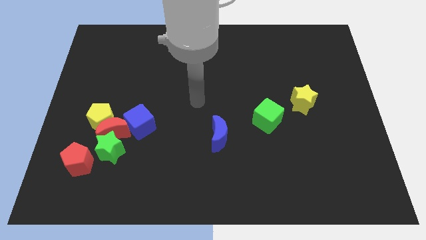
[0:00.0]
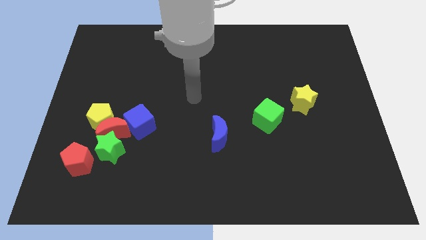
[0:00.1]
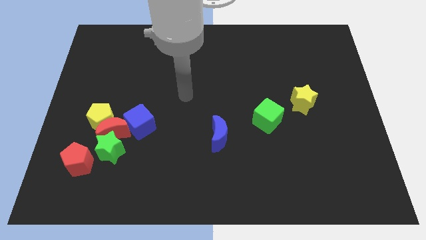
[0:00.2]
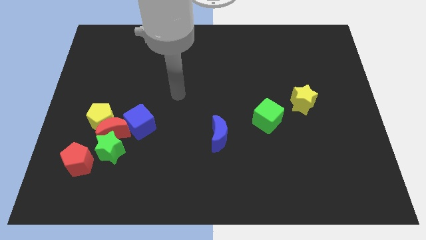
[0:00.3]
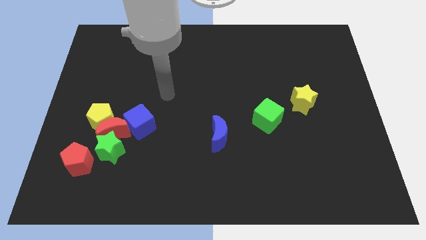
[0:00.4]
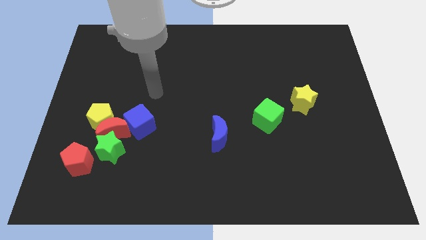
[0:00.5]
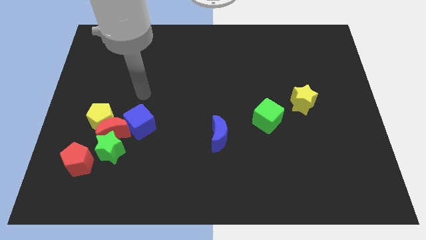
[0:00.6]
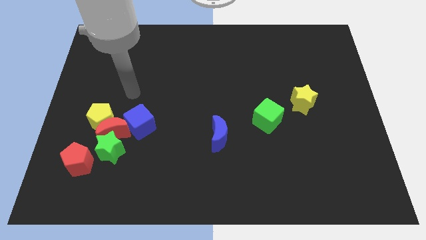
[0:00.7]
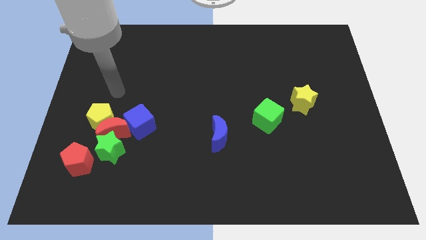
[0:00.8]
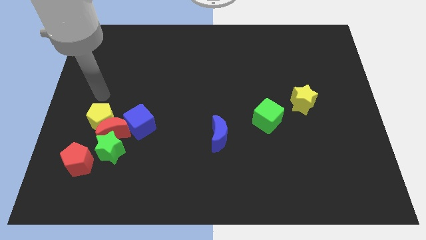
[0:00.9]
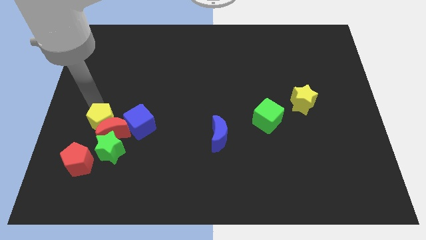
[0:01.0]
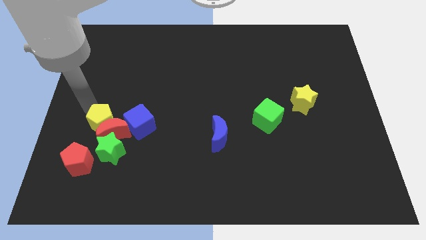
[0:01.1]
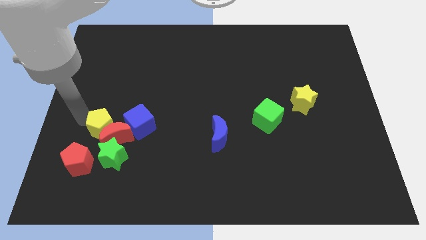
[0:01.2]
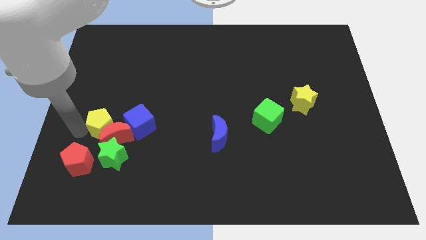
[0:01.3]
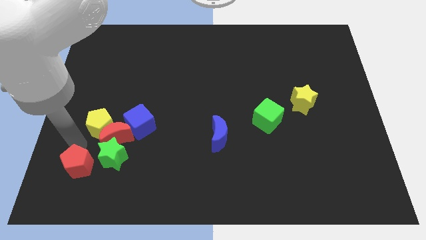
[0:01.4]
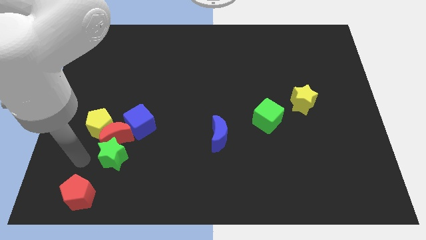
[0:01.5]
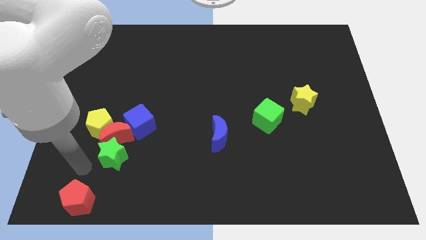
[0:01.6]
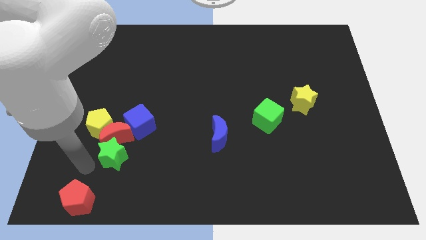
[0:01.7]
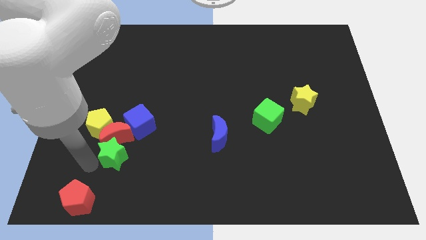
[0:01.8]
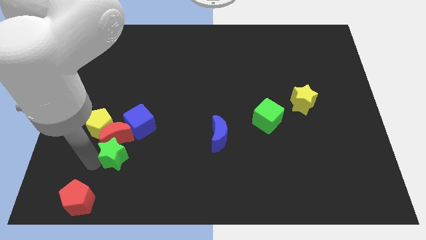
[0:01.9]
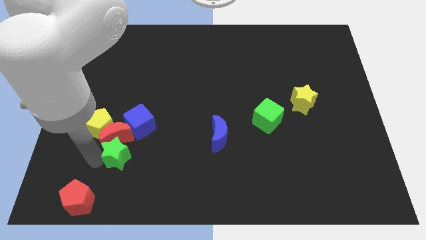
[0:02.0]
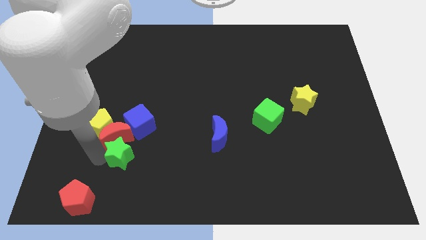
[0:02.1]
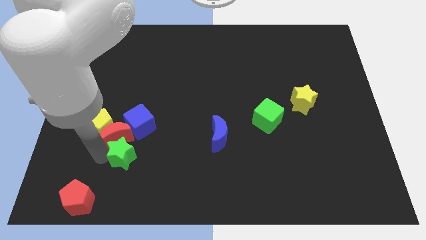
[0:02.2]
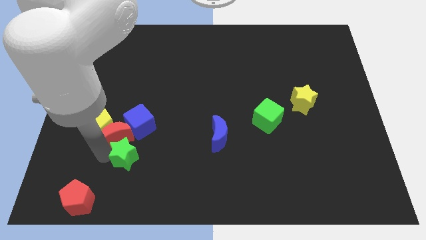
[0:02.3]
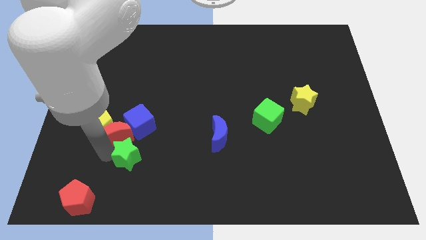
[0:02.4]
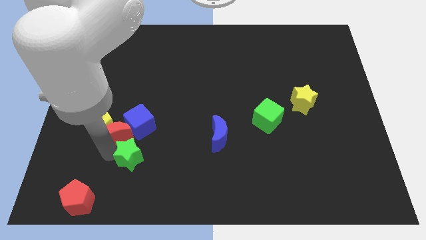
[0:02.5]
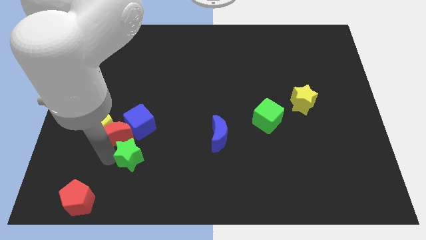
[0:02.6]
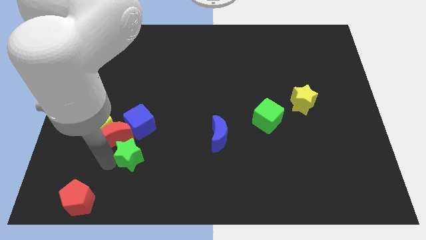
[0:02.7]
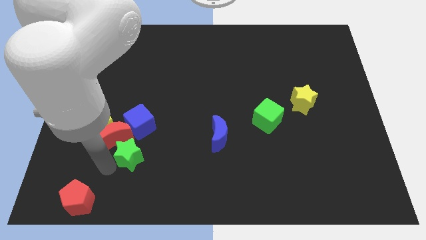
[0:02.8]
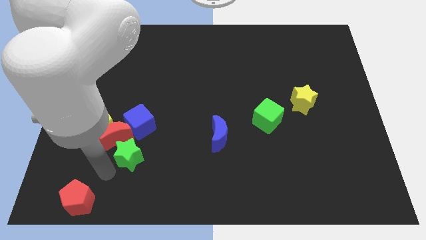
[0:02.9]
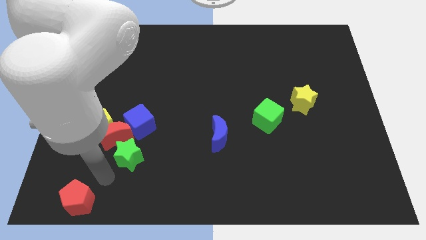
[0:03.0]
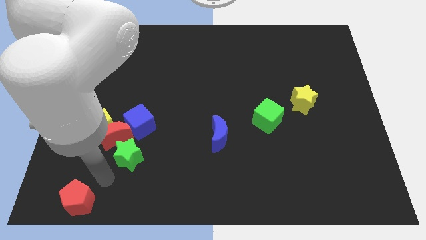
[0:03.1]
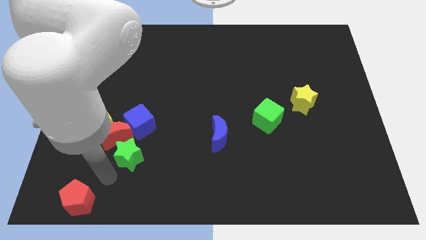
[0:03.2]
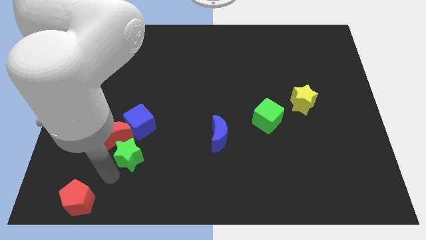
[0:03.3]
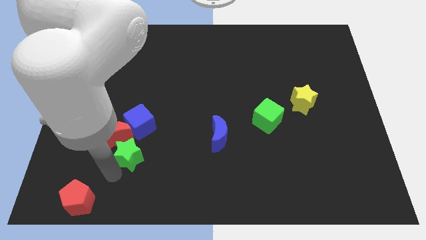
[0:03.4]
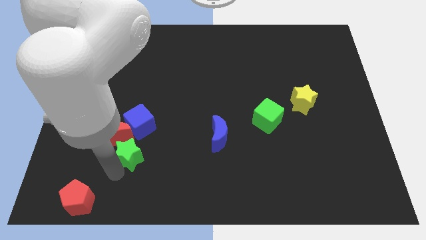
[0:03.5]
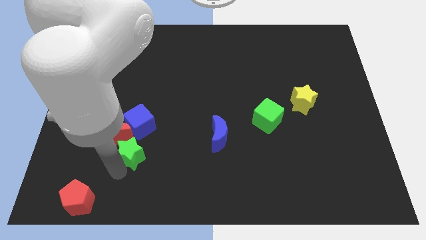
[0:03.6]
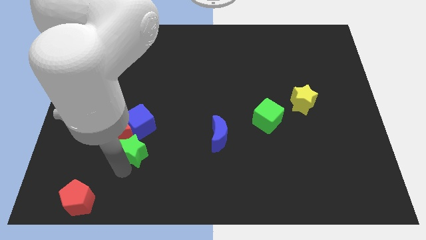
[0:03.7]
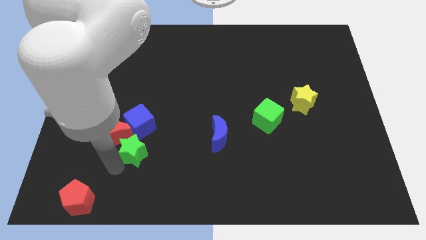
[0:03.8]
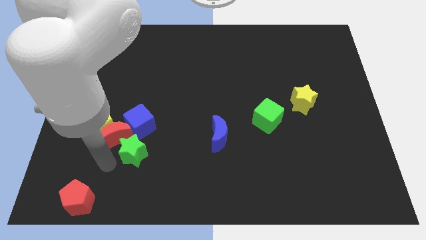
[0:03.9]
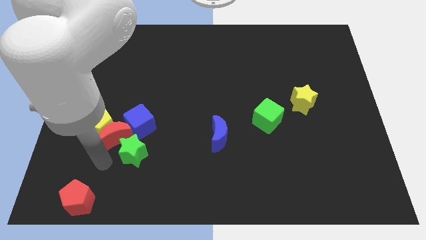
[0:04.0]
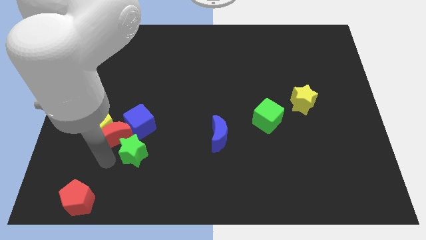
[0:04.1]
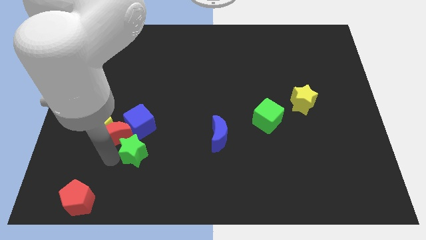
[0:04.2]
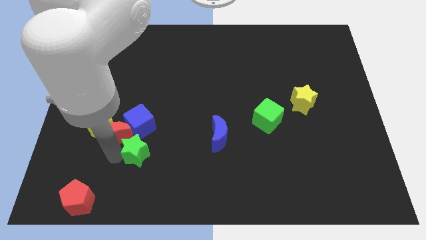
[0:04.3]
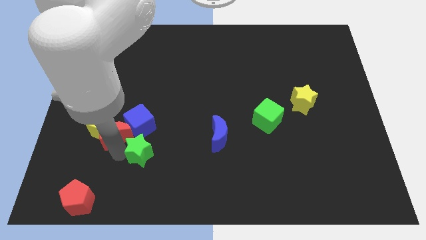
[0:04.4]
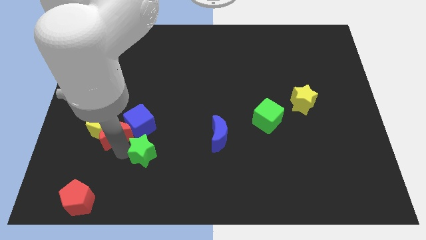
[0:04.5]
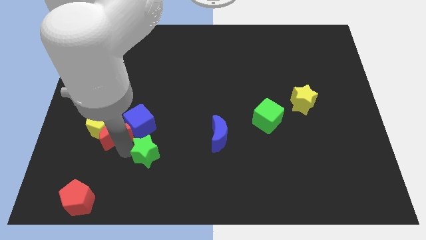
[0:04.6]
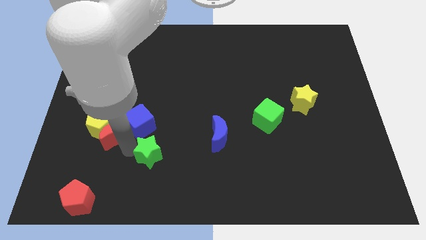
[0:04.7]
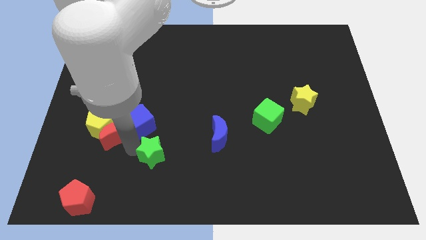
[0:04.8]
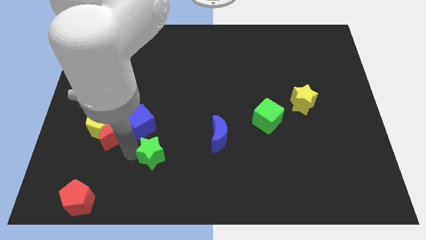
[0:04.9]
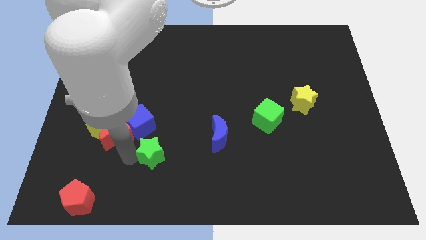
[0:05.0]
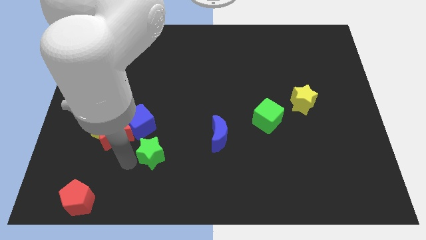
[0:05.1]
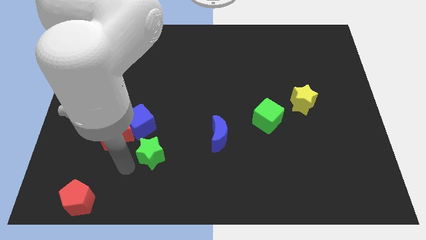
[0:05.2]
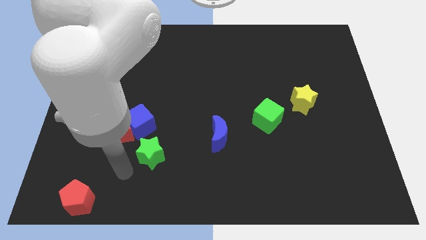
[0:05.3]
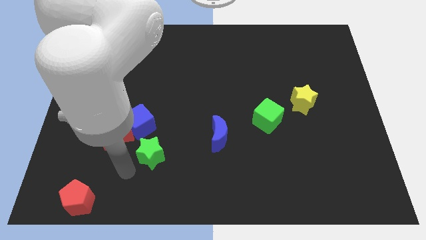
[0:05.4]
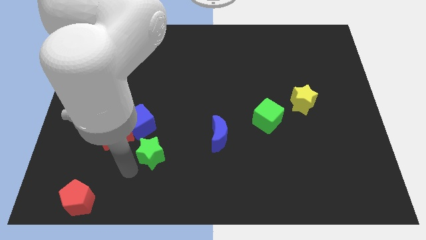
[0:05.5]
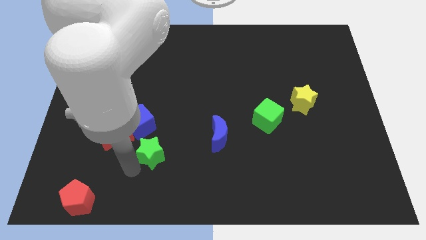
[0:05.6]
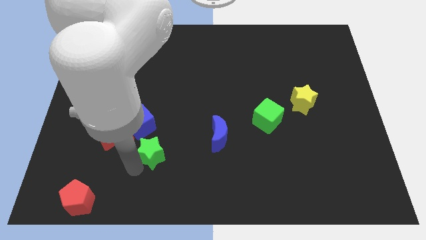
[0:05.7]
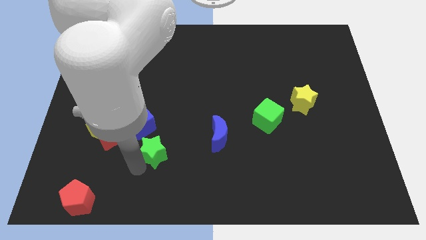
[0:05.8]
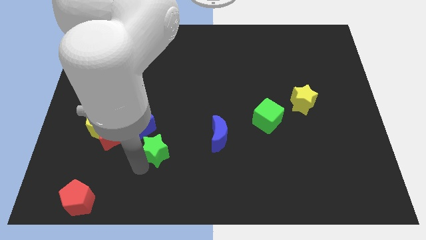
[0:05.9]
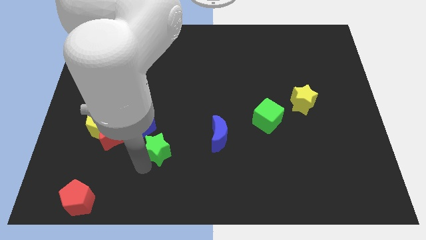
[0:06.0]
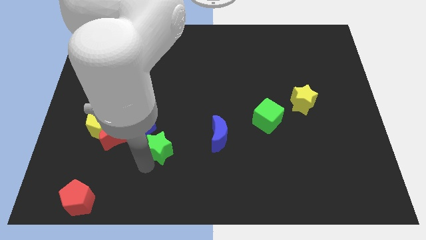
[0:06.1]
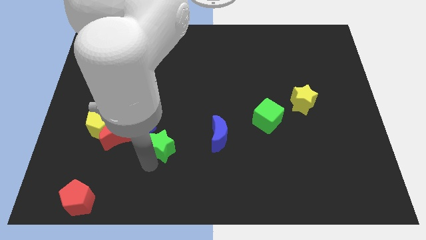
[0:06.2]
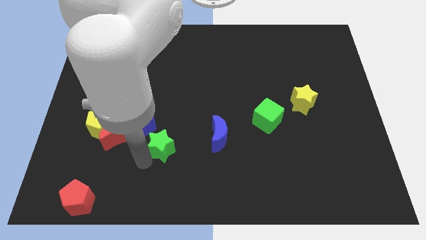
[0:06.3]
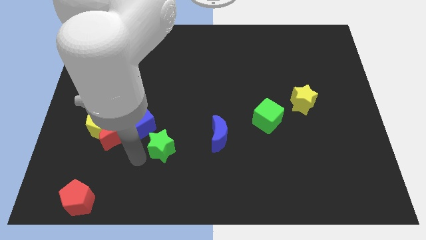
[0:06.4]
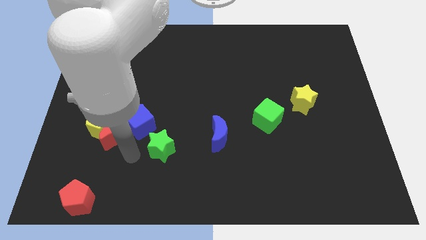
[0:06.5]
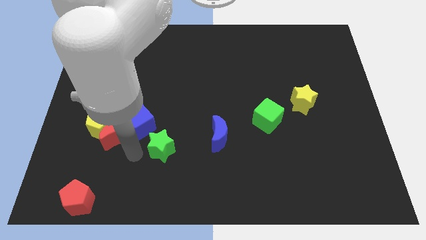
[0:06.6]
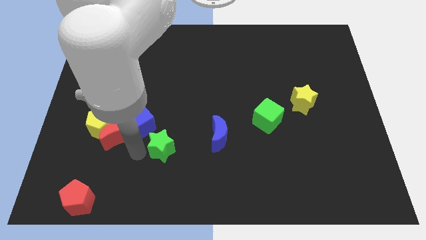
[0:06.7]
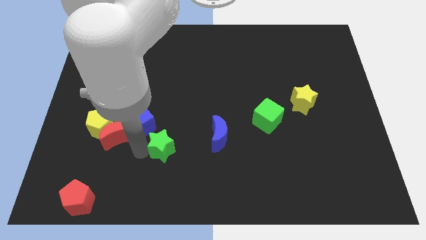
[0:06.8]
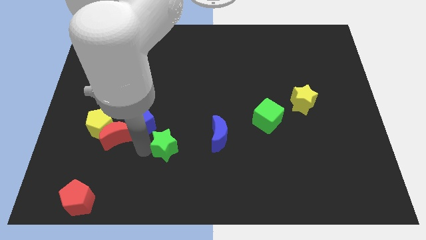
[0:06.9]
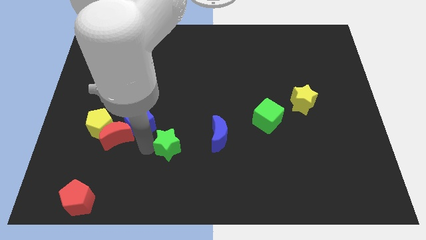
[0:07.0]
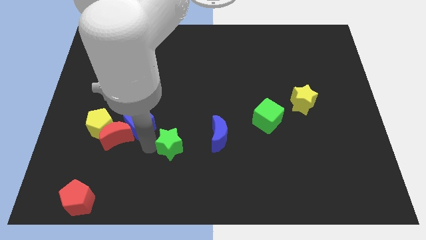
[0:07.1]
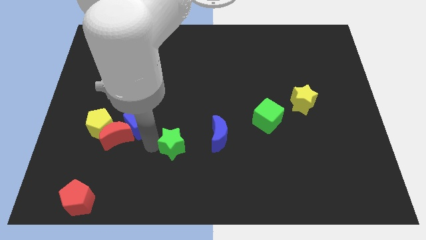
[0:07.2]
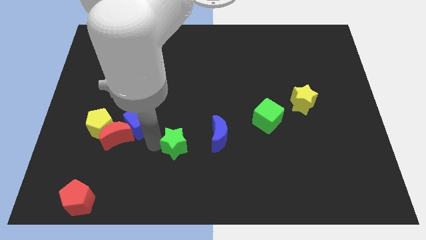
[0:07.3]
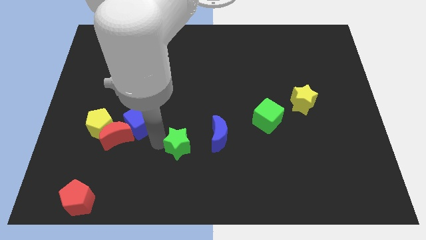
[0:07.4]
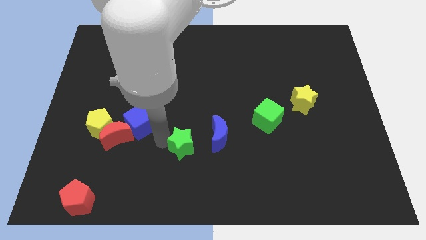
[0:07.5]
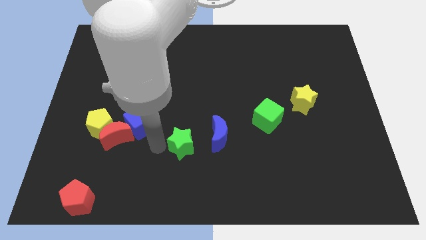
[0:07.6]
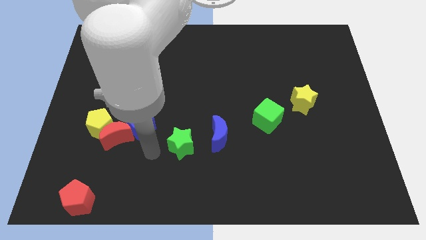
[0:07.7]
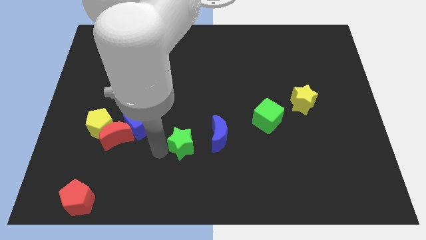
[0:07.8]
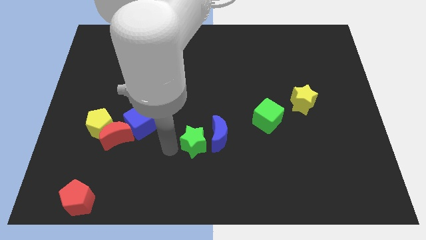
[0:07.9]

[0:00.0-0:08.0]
slide the green star towards the blue moon
